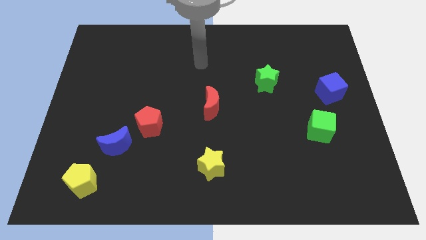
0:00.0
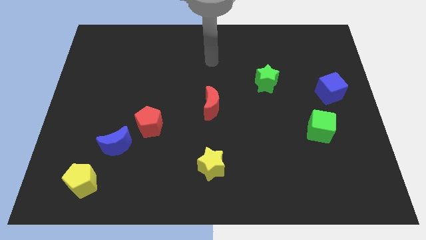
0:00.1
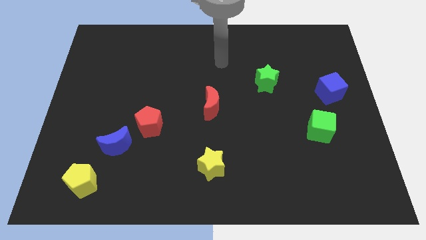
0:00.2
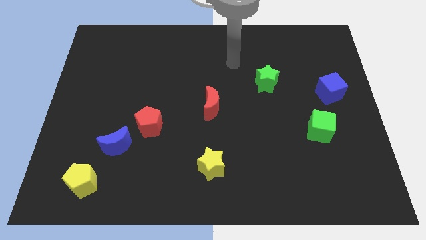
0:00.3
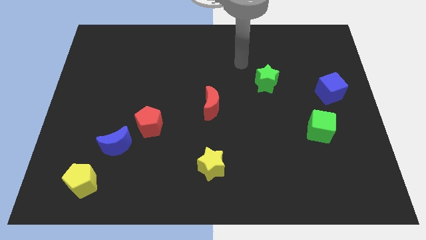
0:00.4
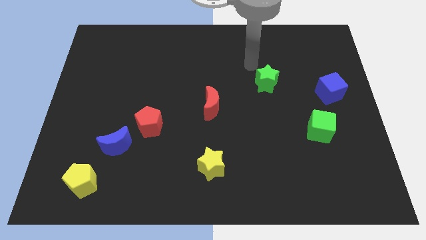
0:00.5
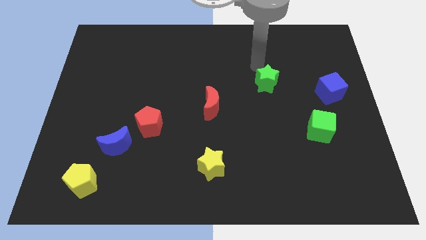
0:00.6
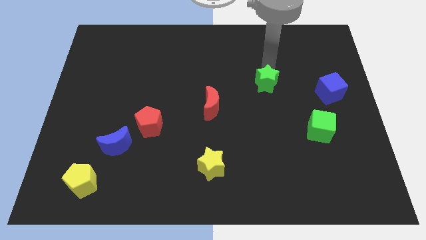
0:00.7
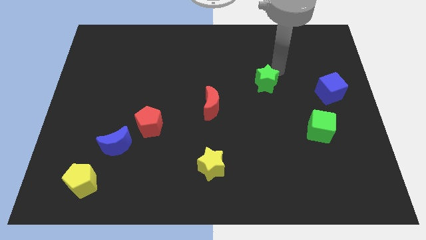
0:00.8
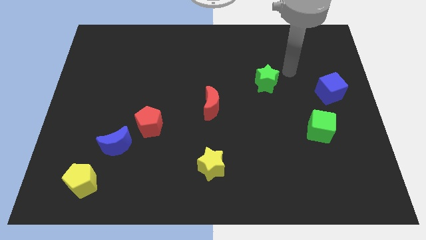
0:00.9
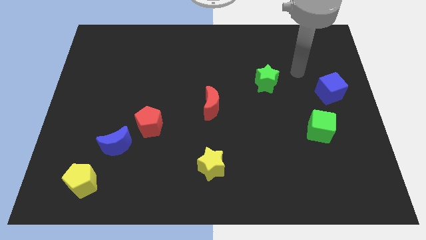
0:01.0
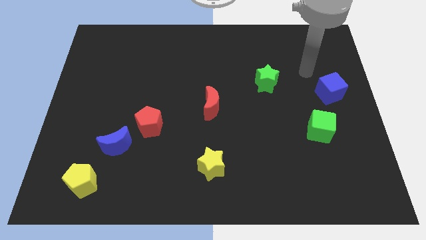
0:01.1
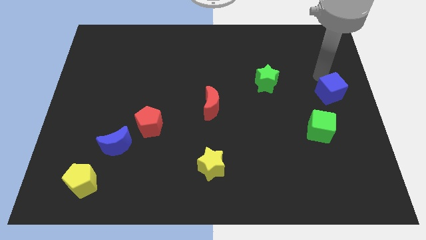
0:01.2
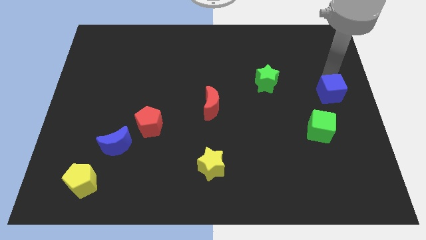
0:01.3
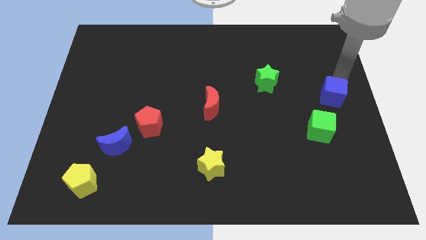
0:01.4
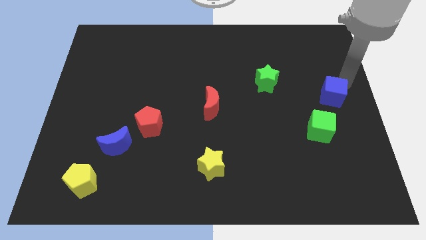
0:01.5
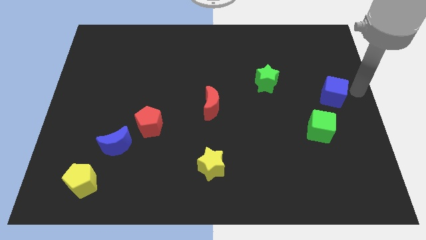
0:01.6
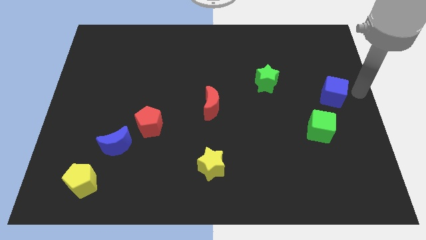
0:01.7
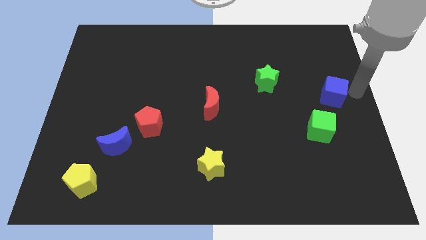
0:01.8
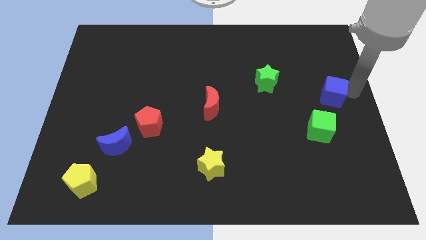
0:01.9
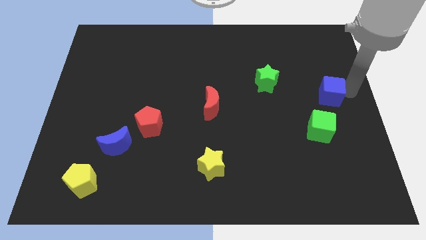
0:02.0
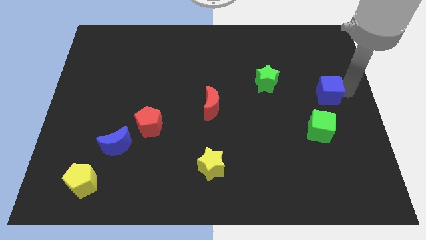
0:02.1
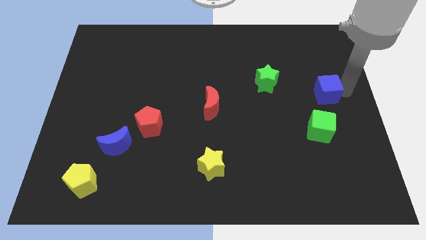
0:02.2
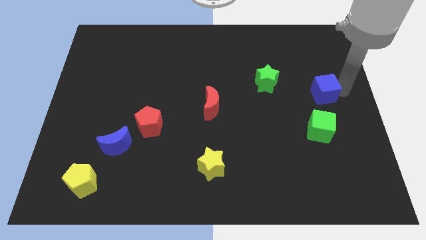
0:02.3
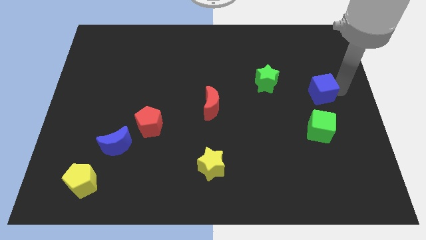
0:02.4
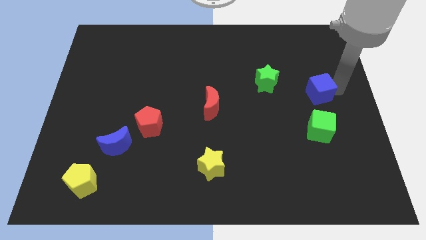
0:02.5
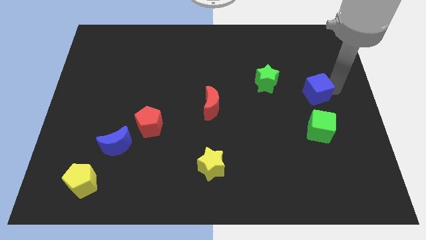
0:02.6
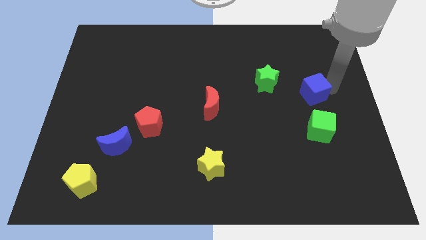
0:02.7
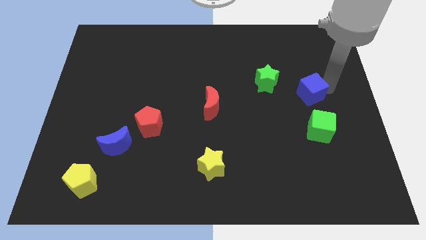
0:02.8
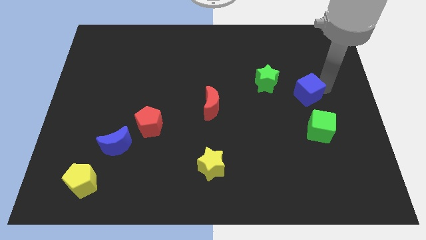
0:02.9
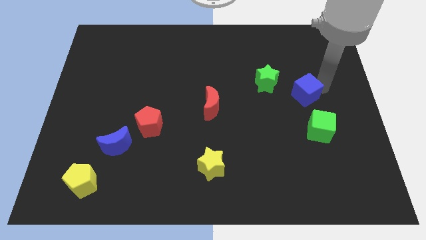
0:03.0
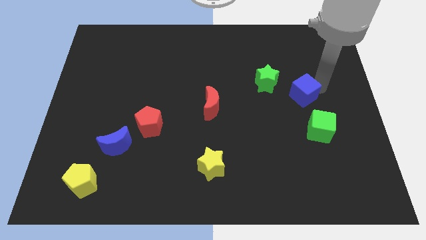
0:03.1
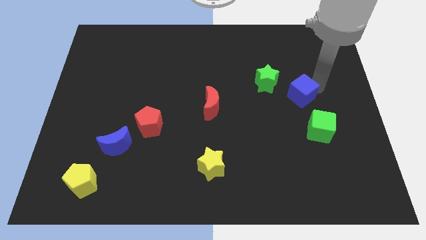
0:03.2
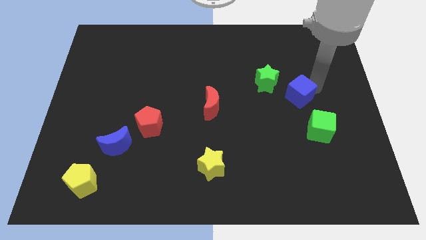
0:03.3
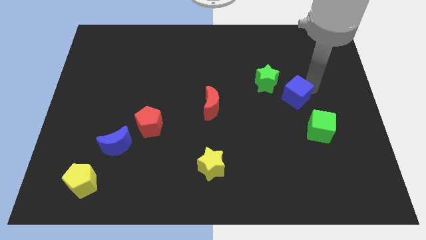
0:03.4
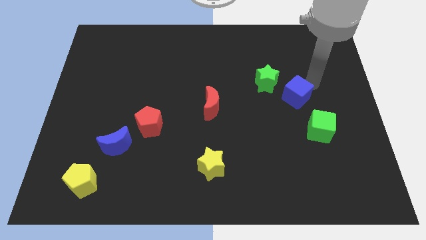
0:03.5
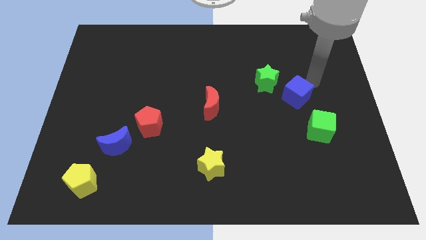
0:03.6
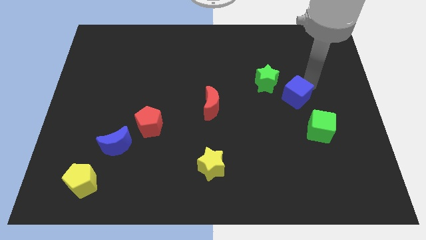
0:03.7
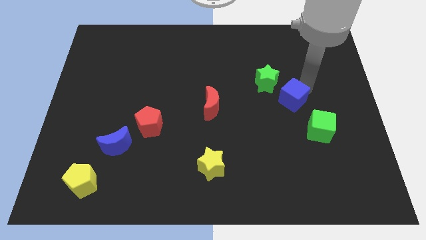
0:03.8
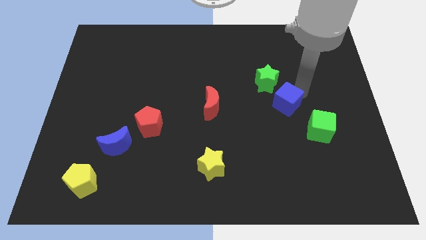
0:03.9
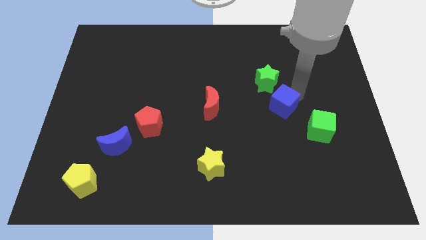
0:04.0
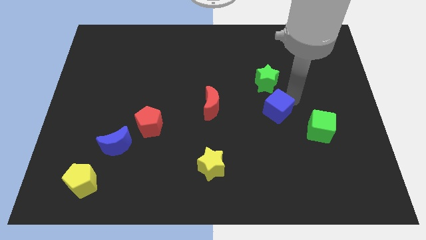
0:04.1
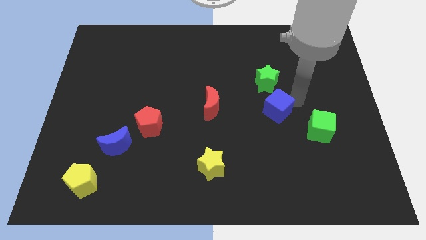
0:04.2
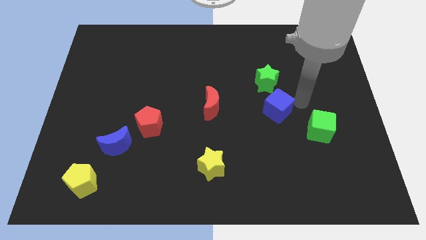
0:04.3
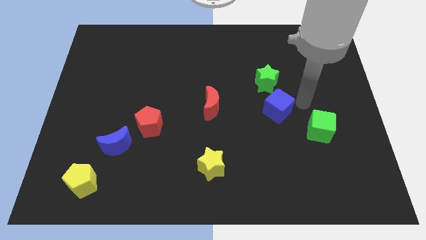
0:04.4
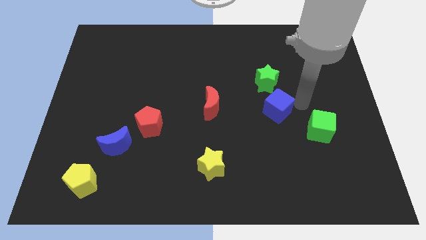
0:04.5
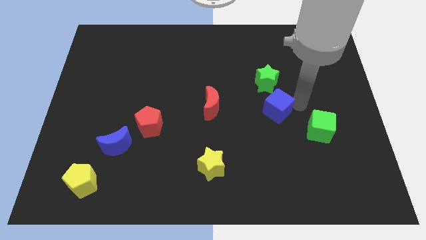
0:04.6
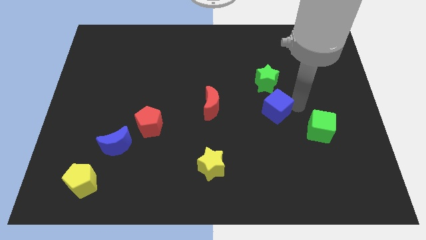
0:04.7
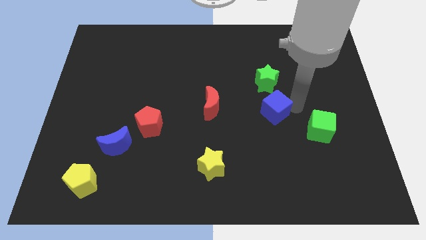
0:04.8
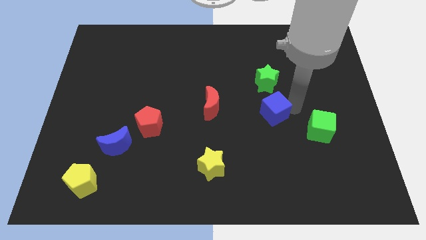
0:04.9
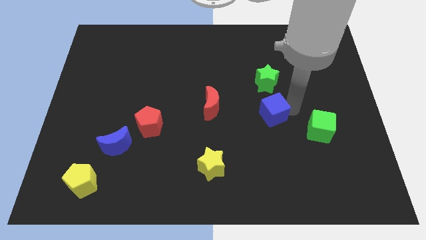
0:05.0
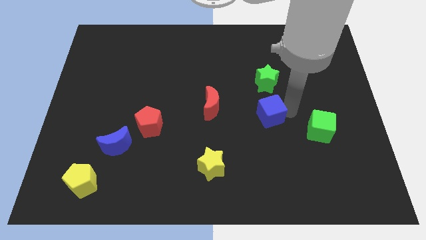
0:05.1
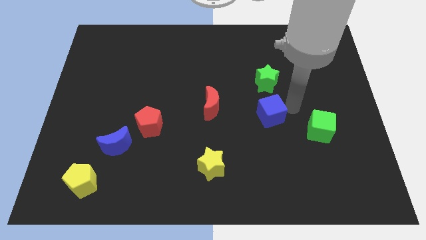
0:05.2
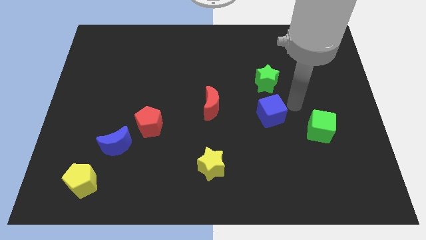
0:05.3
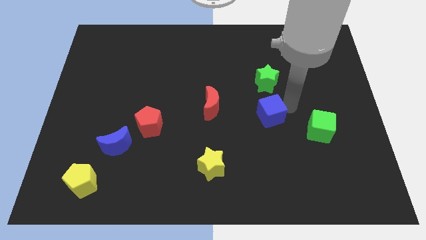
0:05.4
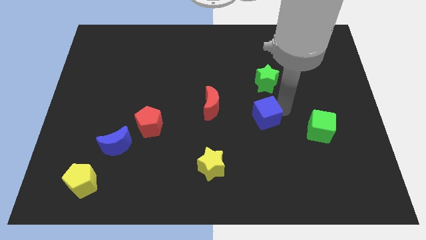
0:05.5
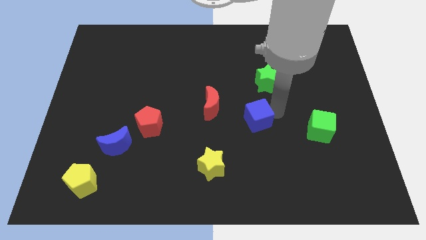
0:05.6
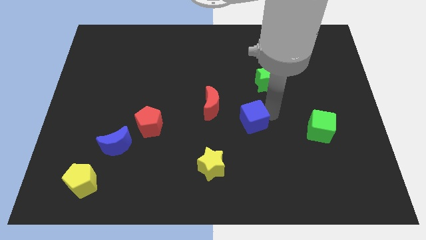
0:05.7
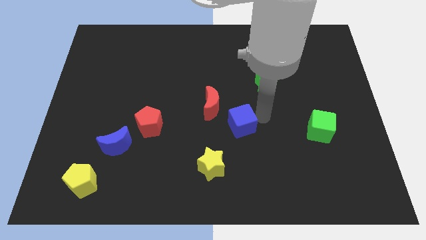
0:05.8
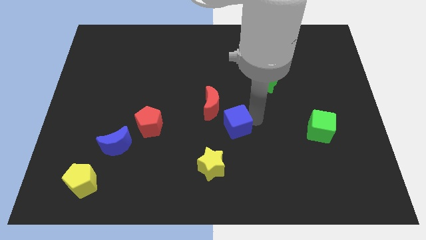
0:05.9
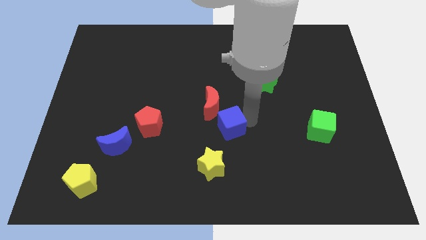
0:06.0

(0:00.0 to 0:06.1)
move the blue cube to the bottom of the red moon

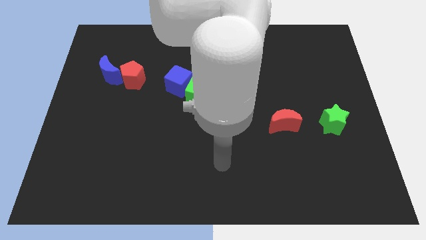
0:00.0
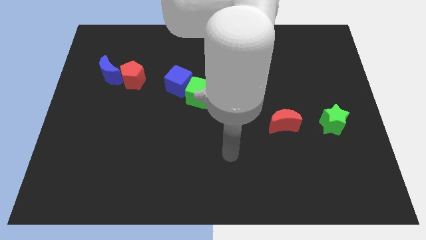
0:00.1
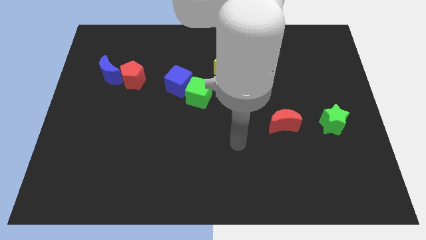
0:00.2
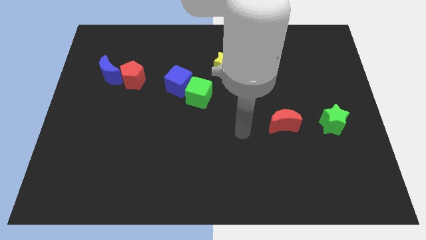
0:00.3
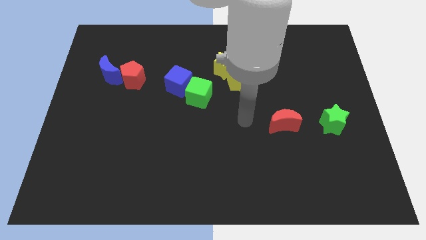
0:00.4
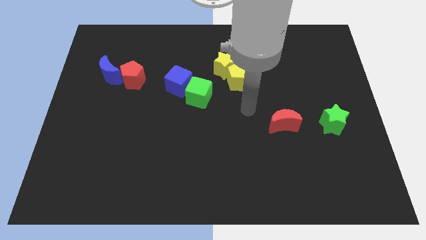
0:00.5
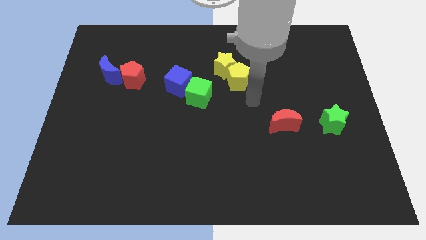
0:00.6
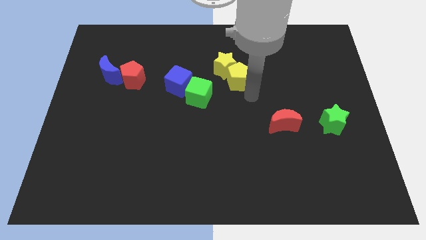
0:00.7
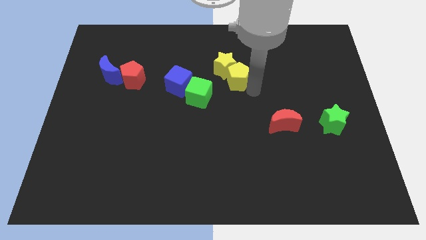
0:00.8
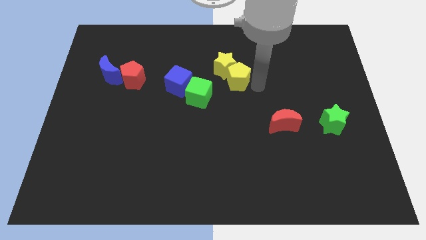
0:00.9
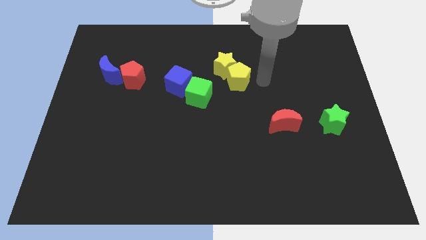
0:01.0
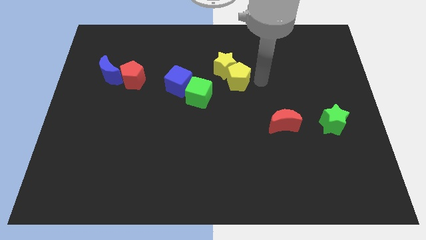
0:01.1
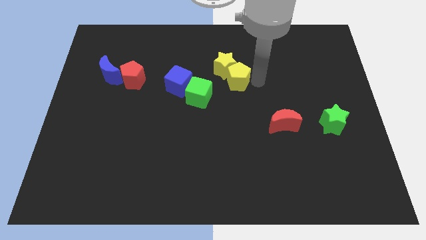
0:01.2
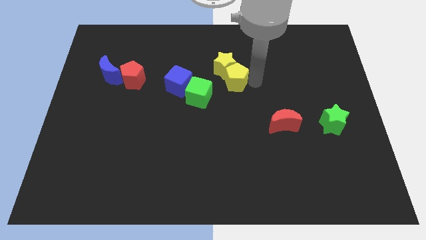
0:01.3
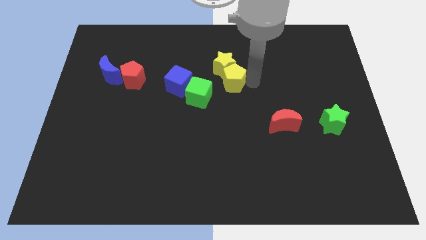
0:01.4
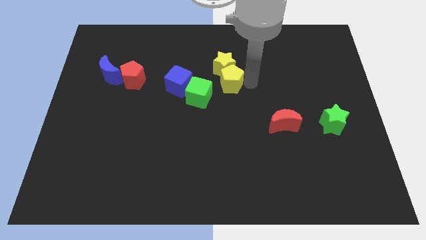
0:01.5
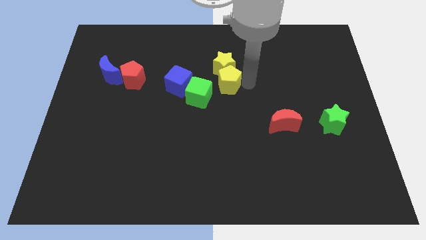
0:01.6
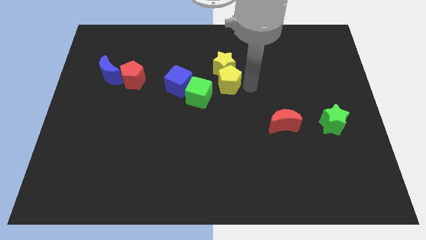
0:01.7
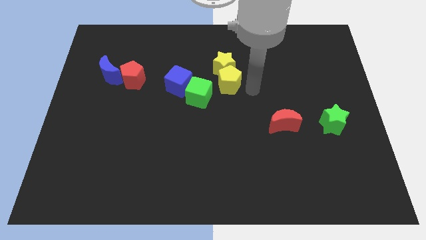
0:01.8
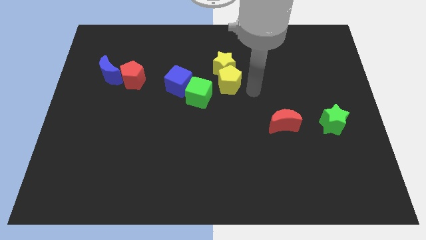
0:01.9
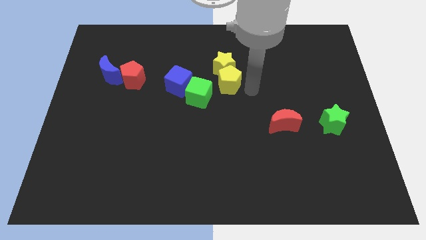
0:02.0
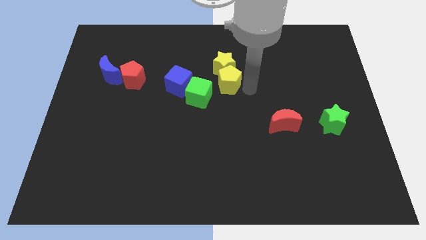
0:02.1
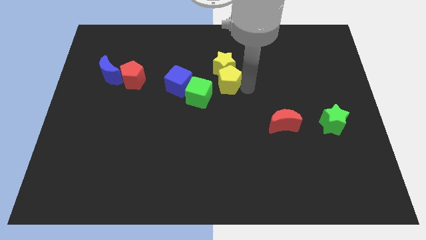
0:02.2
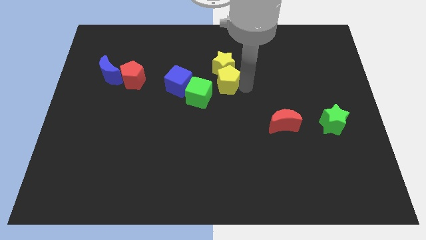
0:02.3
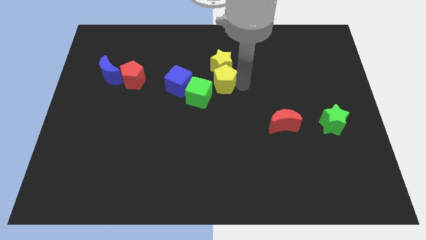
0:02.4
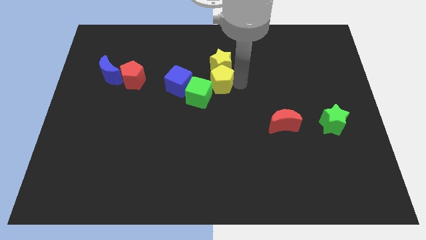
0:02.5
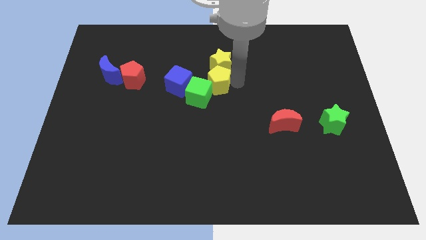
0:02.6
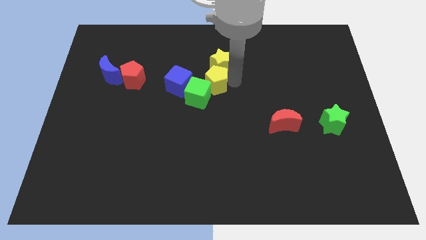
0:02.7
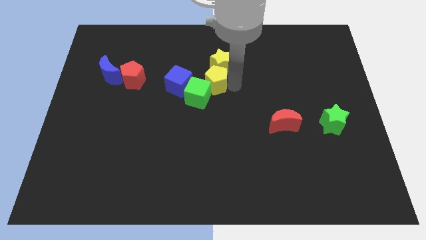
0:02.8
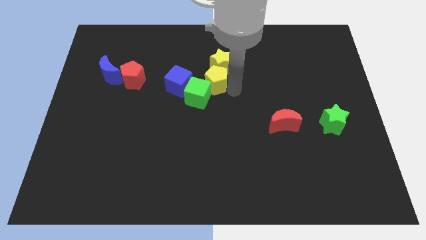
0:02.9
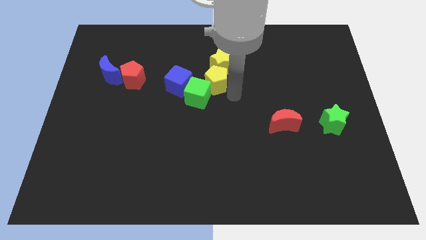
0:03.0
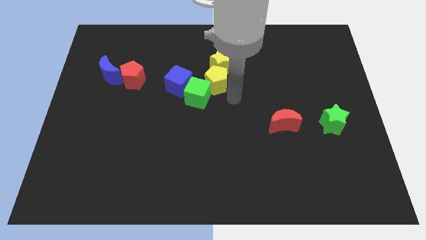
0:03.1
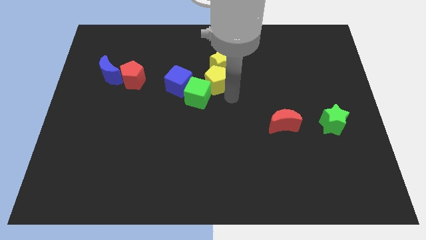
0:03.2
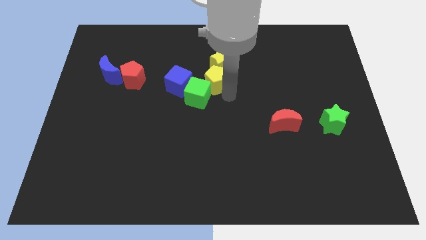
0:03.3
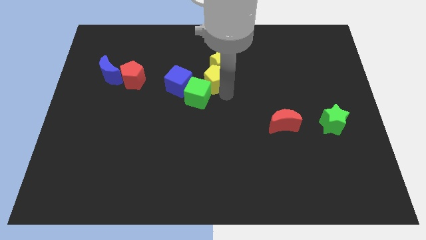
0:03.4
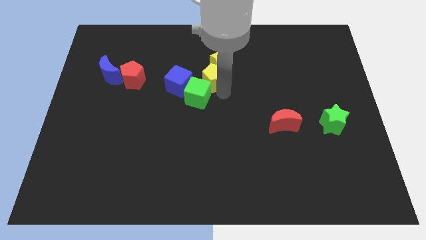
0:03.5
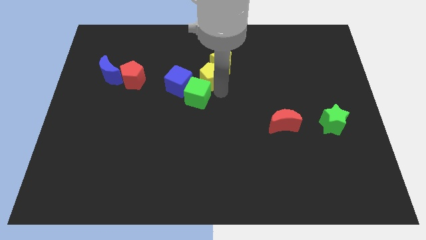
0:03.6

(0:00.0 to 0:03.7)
slide the yellow pentagon diagonally up and to the right of the blue cube
